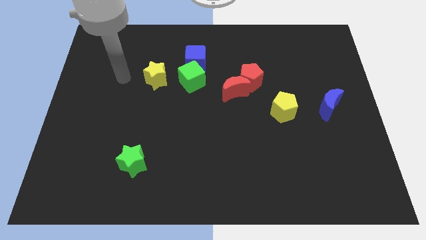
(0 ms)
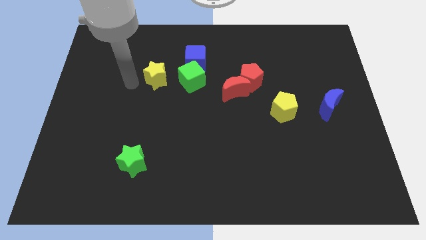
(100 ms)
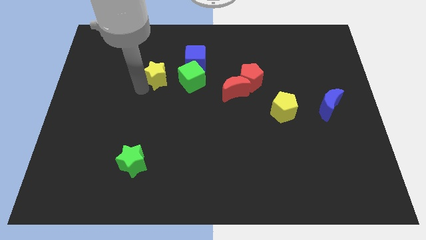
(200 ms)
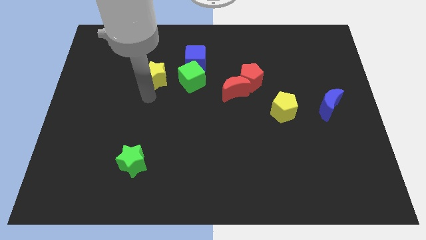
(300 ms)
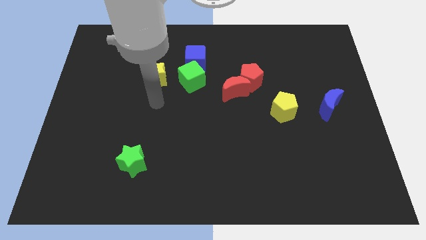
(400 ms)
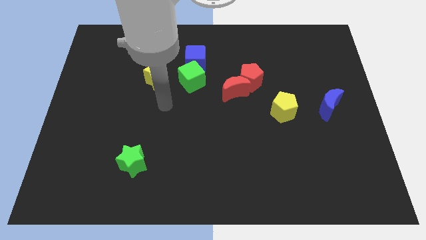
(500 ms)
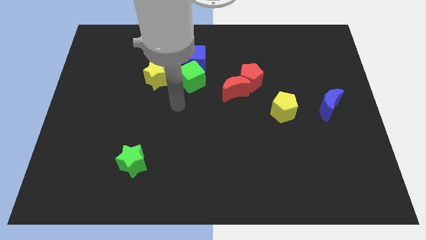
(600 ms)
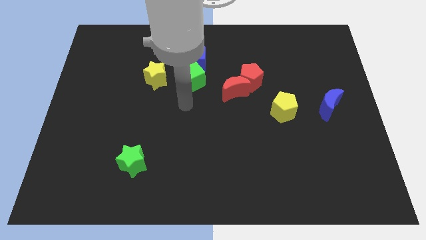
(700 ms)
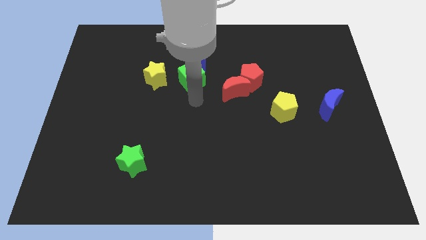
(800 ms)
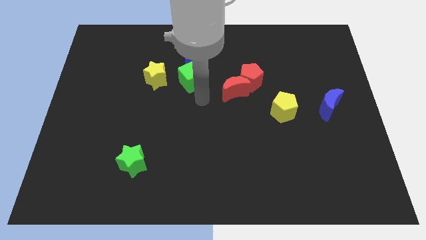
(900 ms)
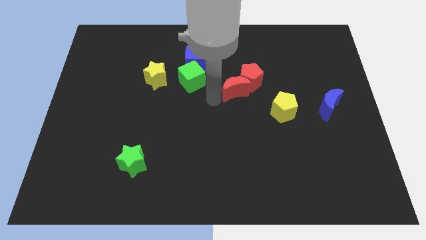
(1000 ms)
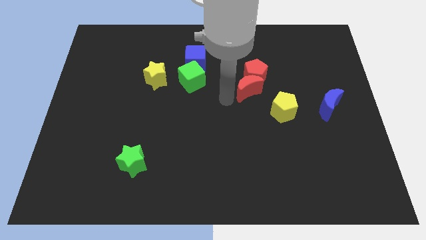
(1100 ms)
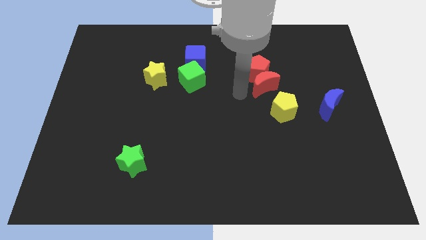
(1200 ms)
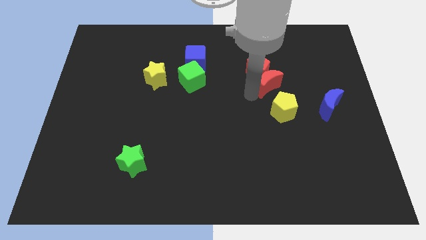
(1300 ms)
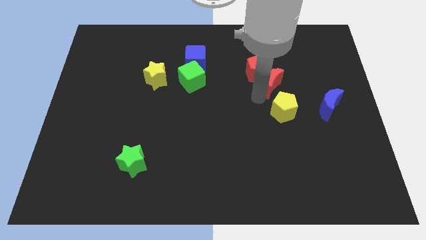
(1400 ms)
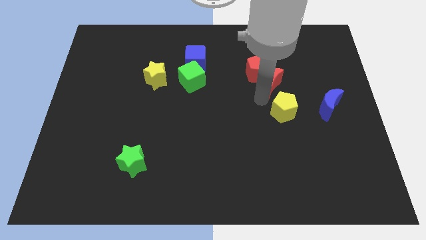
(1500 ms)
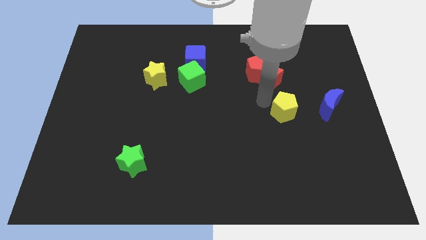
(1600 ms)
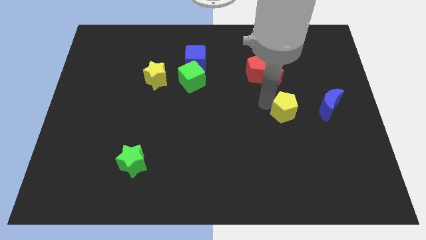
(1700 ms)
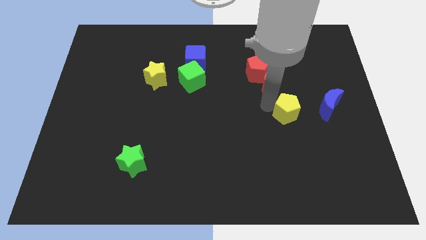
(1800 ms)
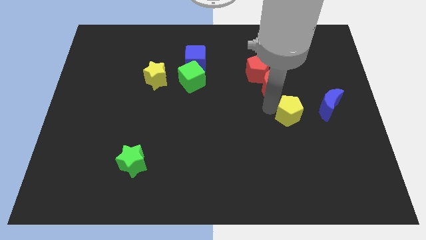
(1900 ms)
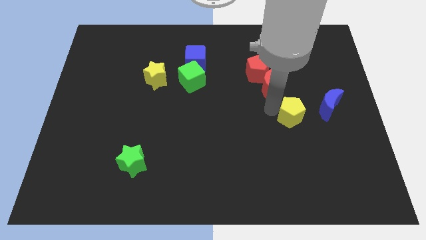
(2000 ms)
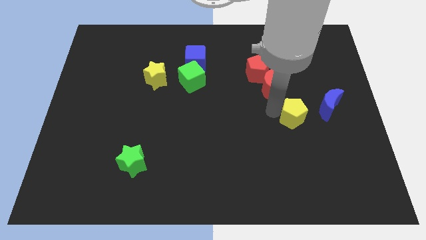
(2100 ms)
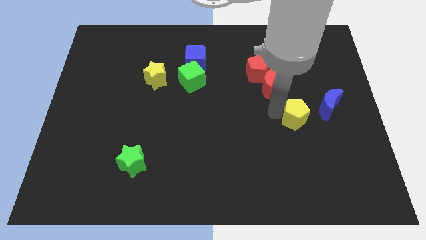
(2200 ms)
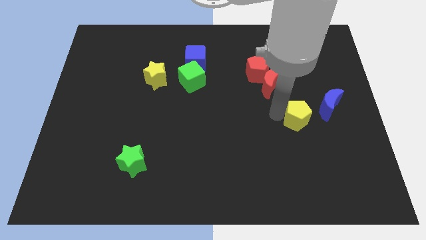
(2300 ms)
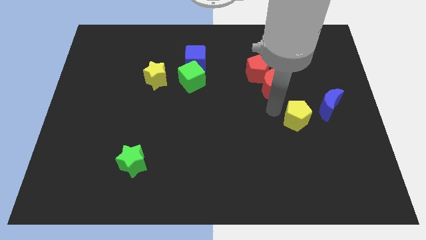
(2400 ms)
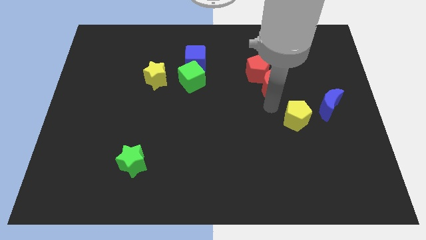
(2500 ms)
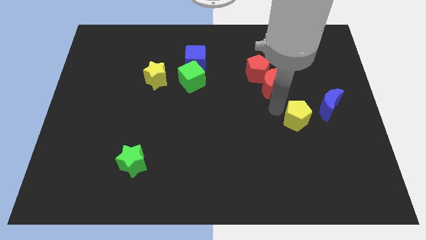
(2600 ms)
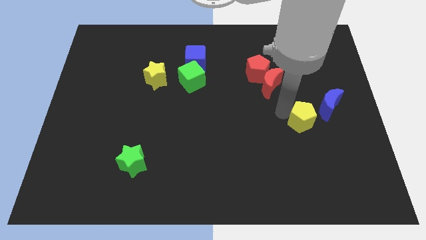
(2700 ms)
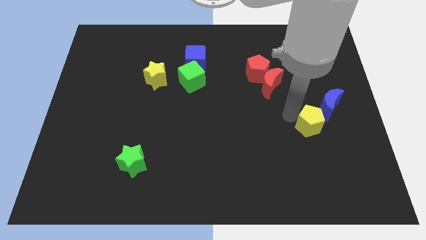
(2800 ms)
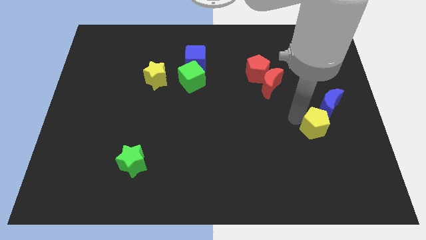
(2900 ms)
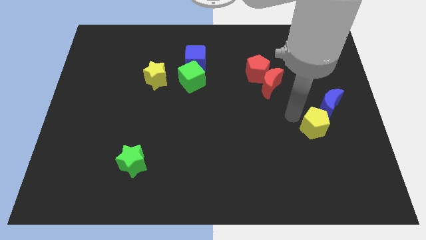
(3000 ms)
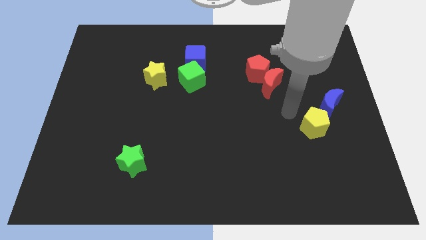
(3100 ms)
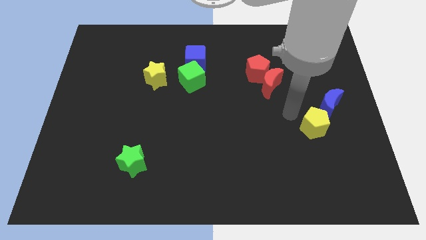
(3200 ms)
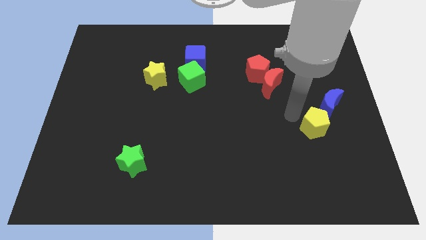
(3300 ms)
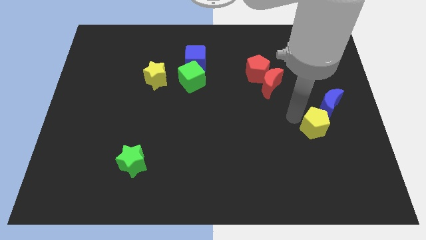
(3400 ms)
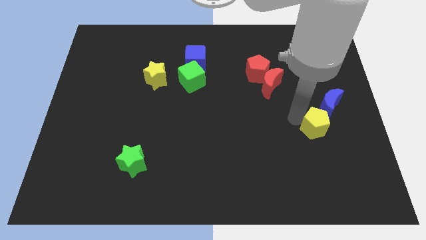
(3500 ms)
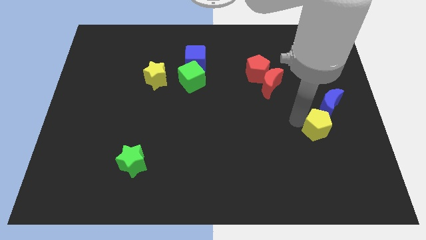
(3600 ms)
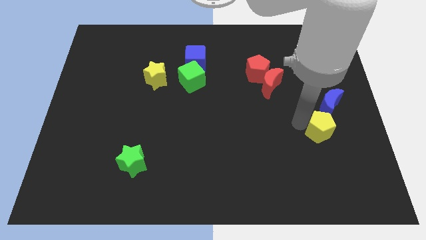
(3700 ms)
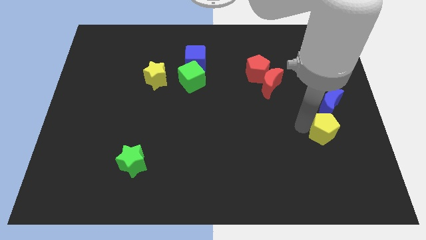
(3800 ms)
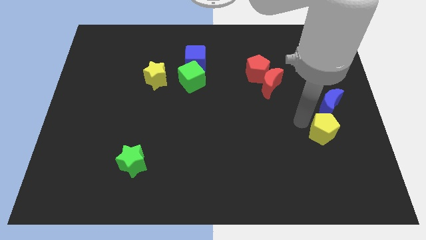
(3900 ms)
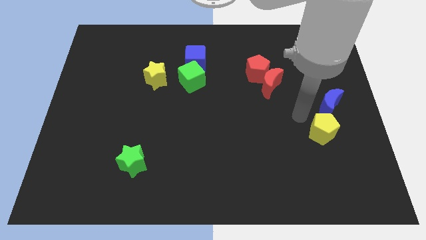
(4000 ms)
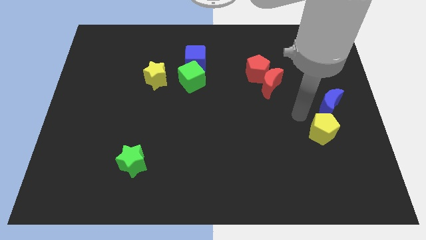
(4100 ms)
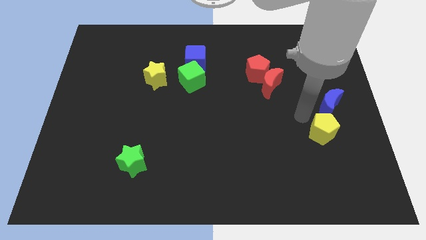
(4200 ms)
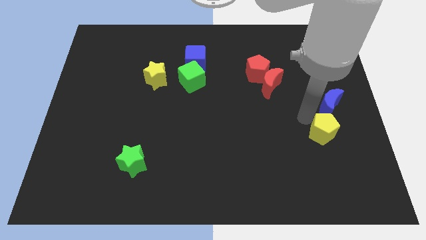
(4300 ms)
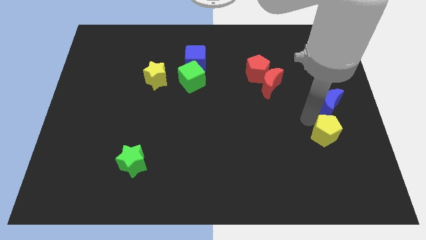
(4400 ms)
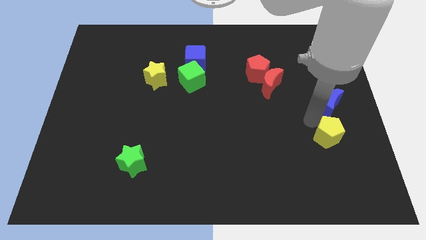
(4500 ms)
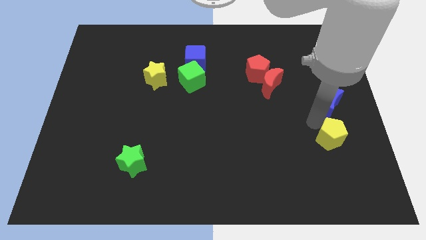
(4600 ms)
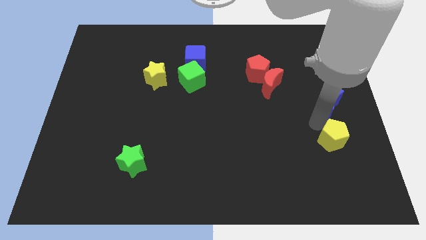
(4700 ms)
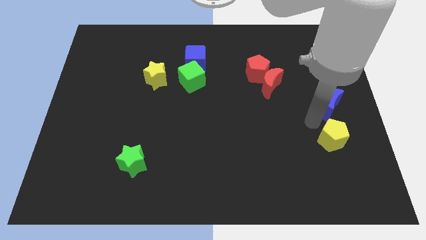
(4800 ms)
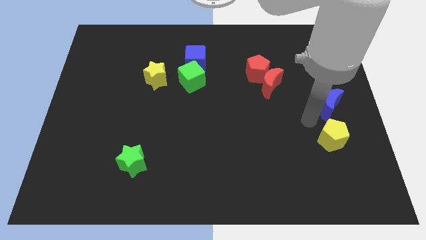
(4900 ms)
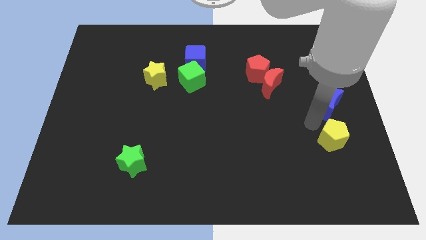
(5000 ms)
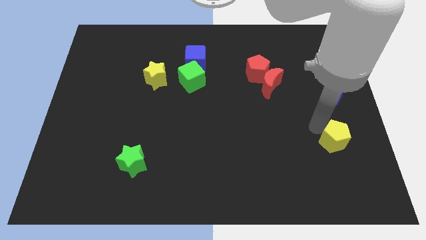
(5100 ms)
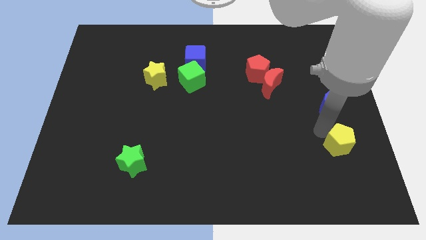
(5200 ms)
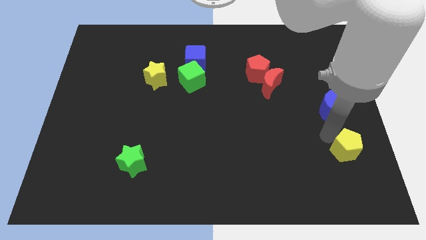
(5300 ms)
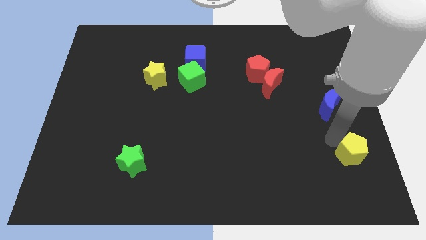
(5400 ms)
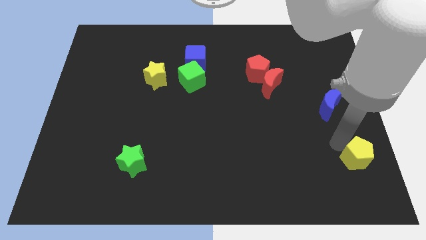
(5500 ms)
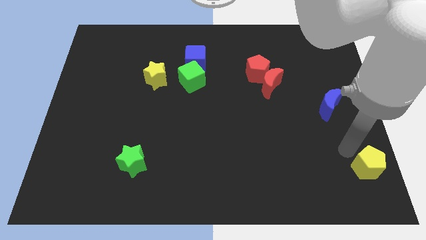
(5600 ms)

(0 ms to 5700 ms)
push the yellow pentagon to the bottom right of the board

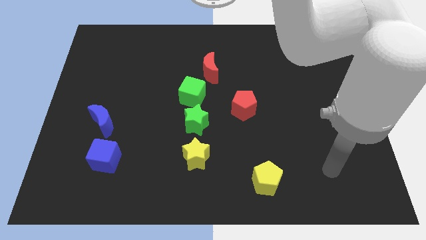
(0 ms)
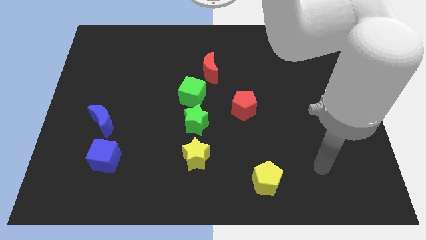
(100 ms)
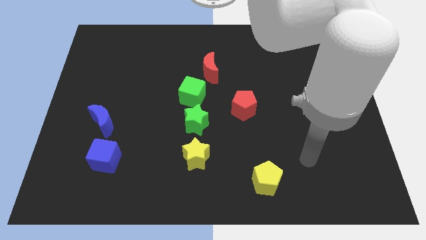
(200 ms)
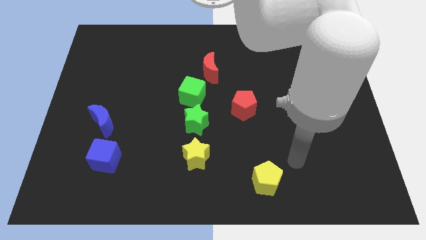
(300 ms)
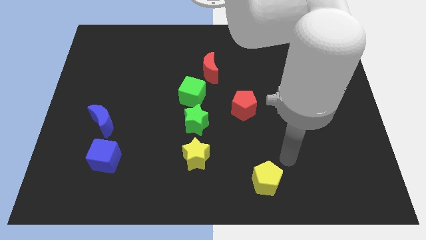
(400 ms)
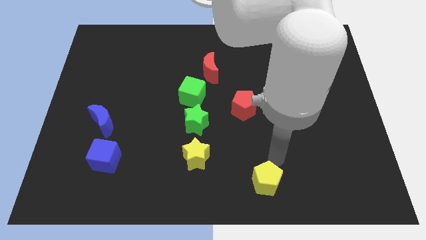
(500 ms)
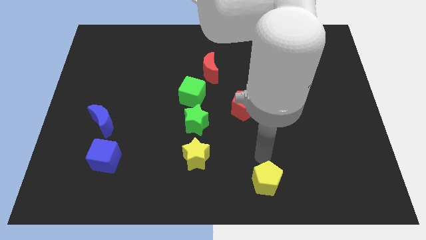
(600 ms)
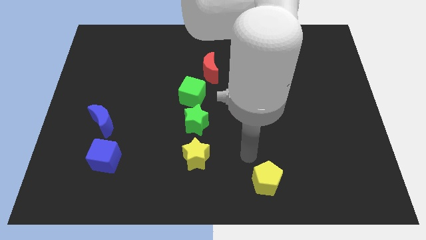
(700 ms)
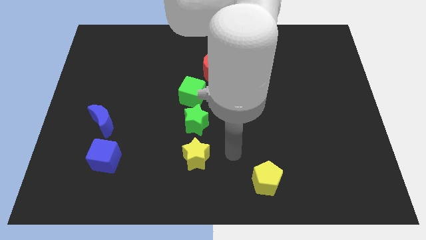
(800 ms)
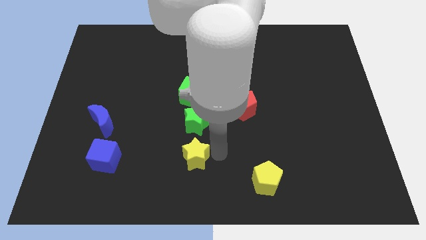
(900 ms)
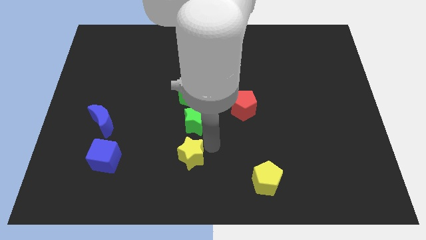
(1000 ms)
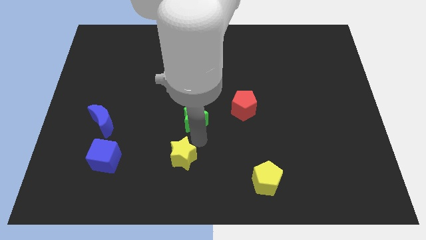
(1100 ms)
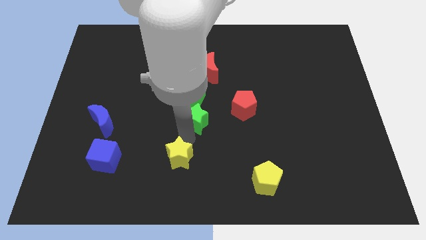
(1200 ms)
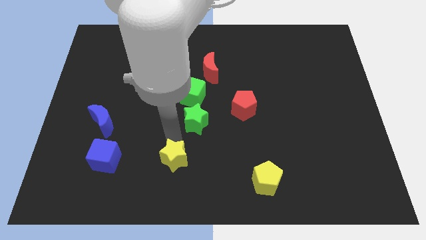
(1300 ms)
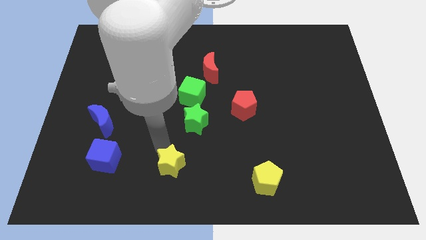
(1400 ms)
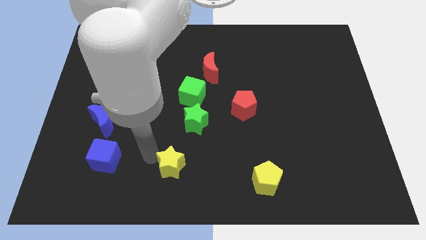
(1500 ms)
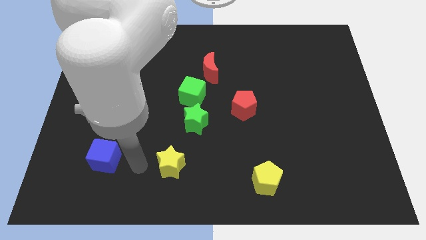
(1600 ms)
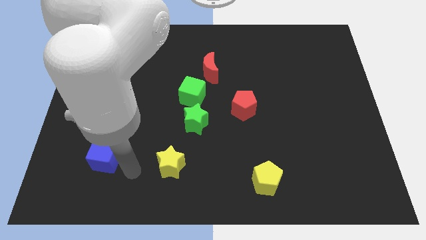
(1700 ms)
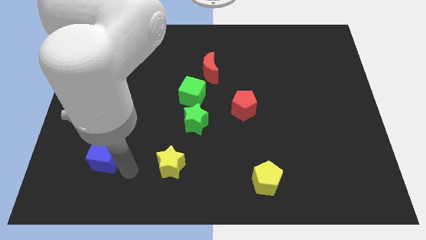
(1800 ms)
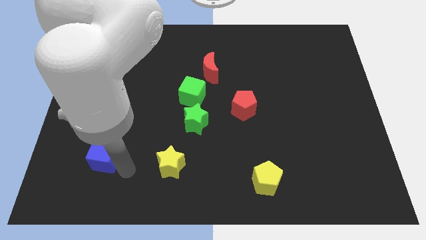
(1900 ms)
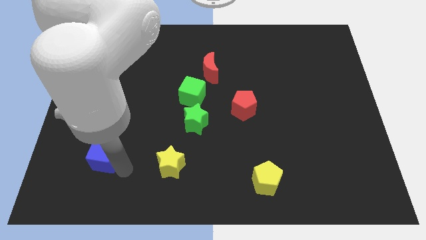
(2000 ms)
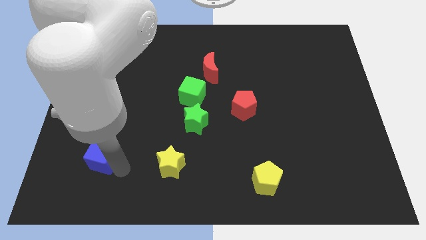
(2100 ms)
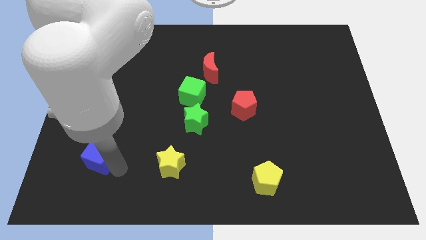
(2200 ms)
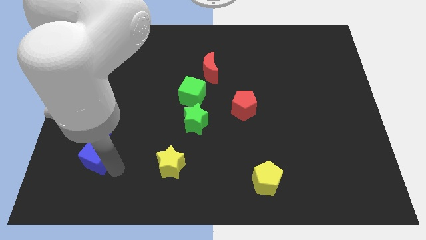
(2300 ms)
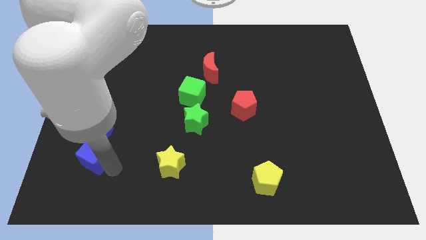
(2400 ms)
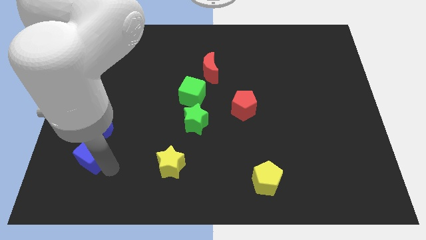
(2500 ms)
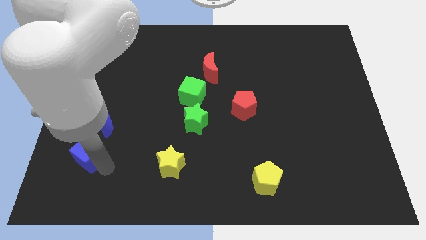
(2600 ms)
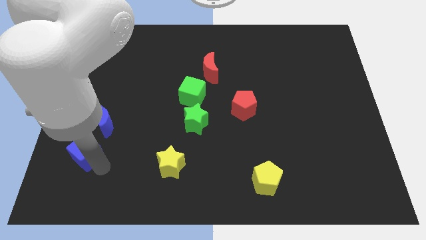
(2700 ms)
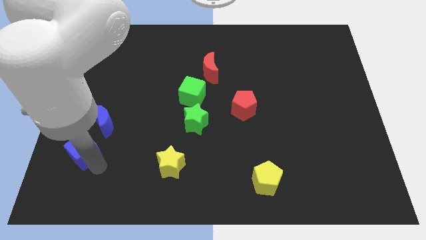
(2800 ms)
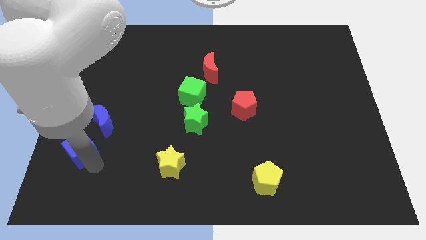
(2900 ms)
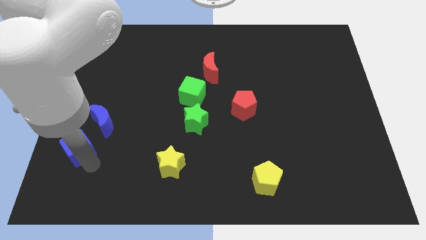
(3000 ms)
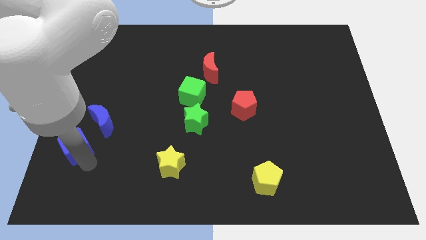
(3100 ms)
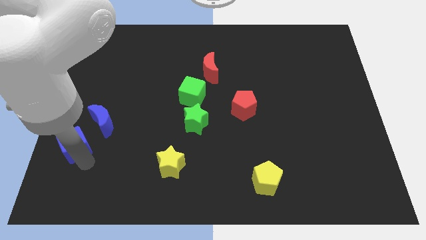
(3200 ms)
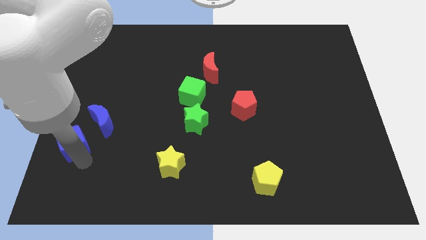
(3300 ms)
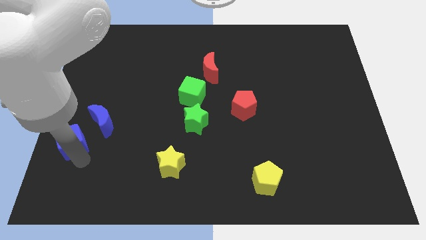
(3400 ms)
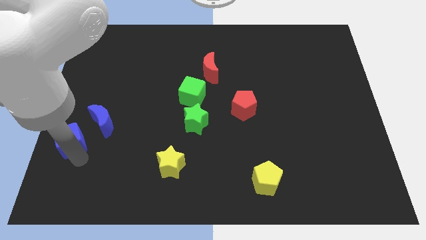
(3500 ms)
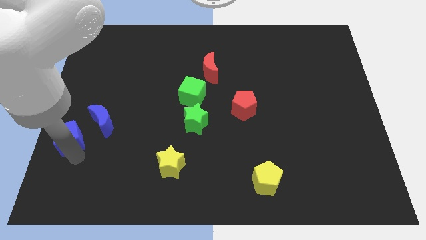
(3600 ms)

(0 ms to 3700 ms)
push the blue cube to the left side of the board
